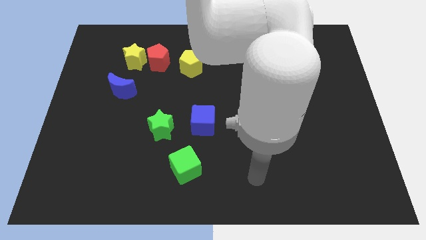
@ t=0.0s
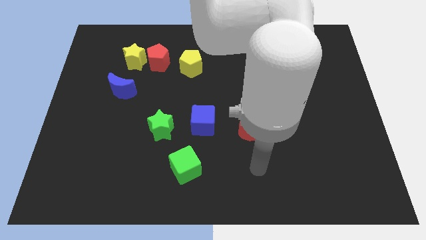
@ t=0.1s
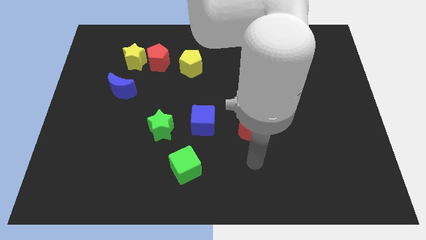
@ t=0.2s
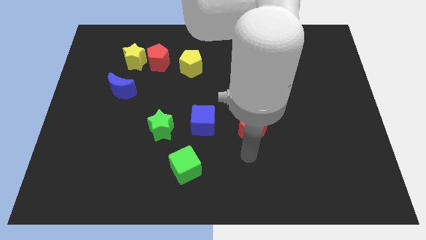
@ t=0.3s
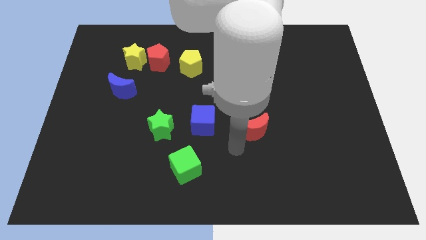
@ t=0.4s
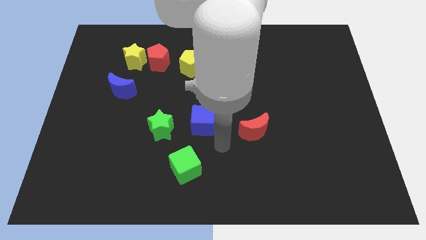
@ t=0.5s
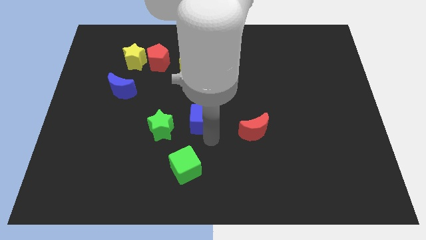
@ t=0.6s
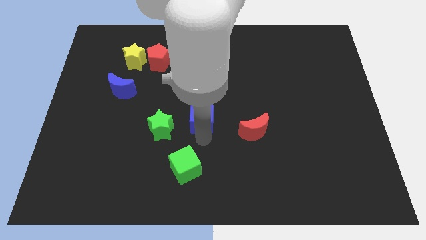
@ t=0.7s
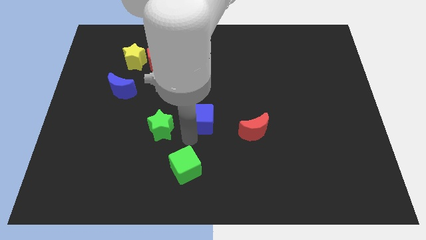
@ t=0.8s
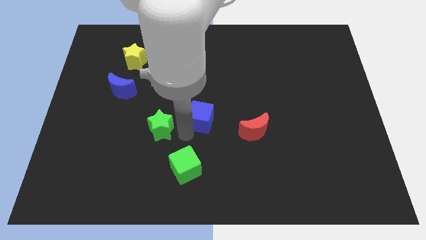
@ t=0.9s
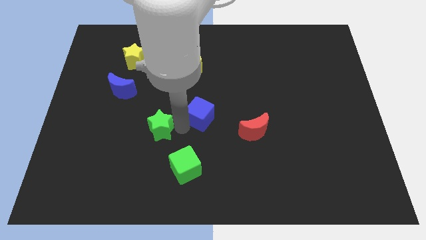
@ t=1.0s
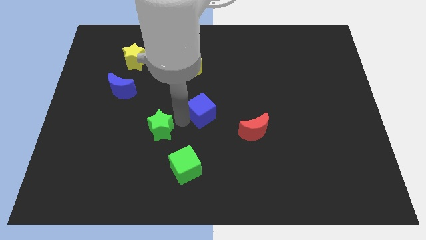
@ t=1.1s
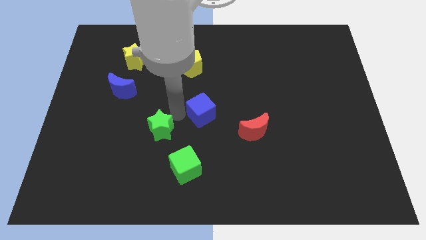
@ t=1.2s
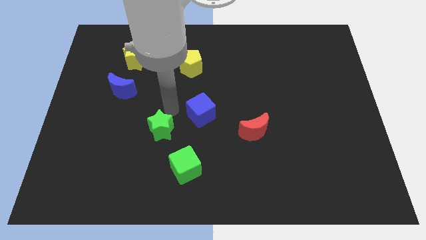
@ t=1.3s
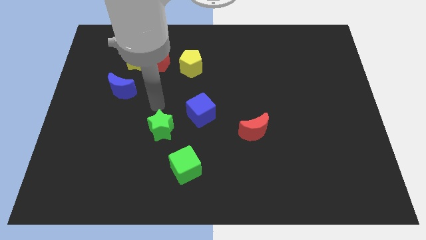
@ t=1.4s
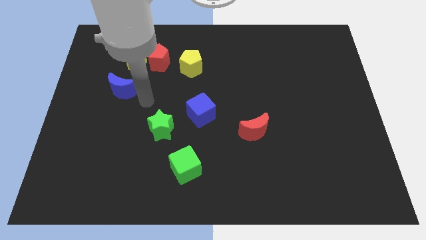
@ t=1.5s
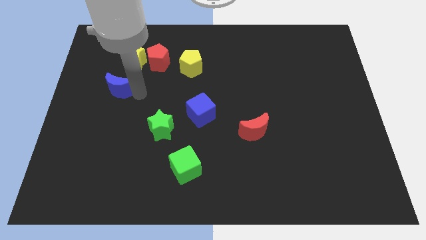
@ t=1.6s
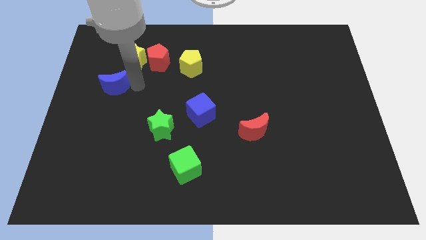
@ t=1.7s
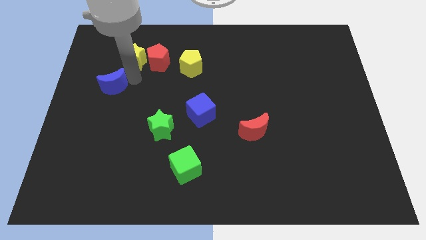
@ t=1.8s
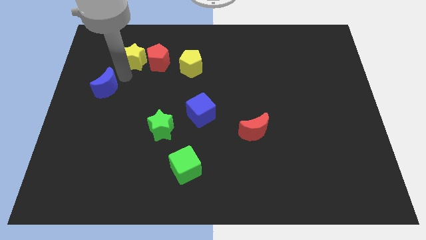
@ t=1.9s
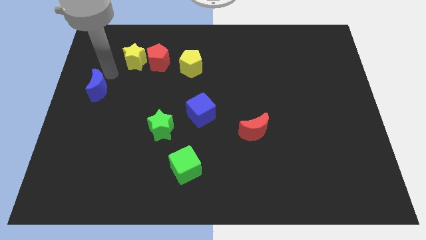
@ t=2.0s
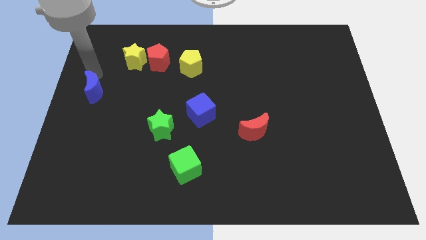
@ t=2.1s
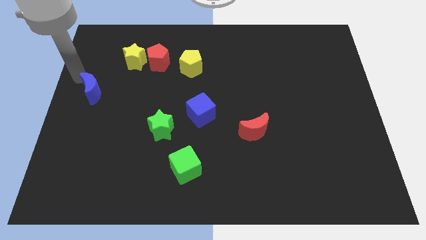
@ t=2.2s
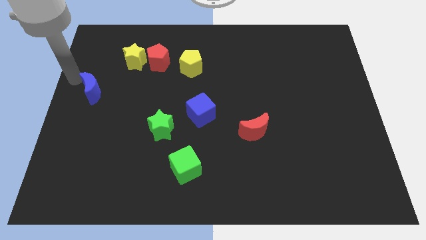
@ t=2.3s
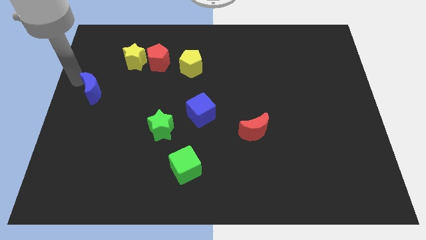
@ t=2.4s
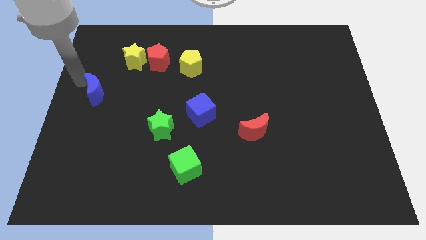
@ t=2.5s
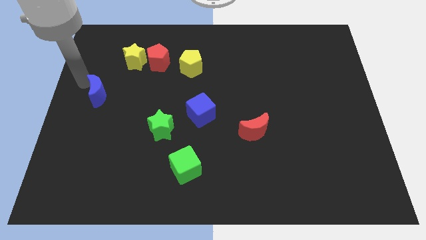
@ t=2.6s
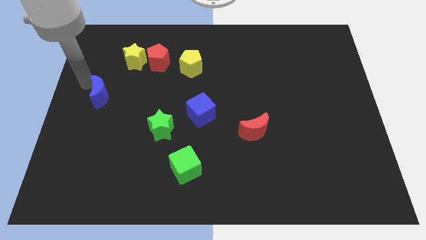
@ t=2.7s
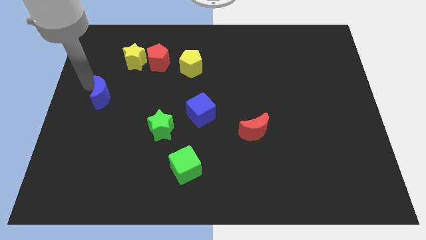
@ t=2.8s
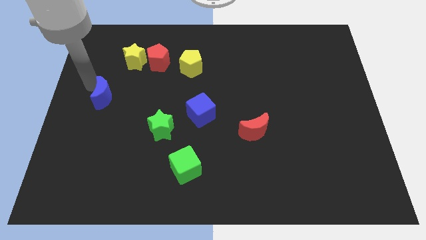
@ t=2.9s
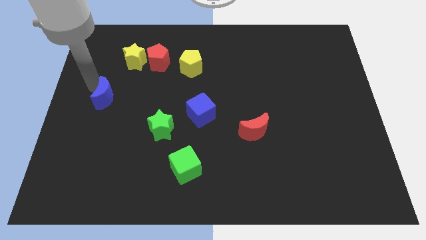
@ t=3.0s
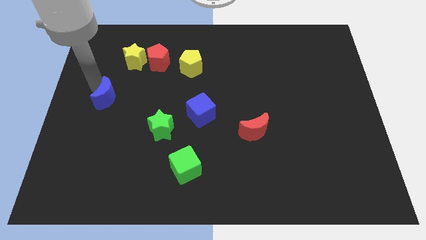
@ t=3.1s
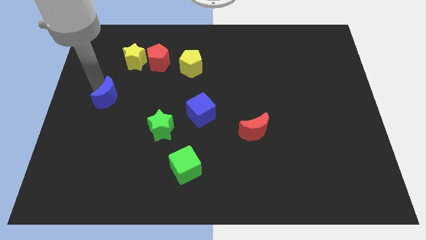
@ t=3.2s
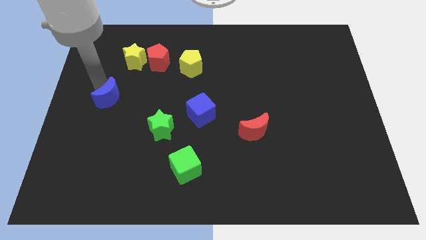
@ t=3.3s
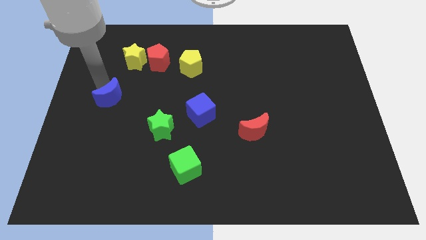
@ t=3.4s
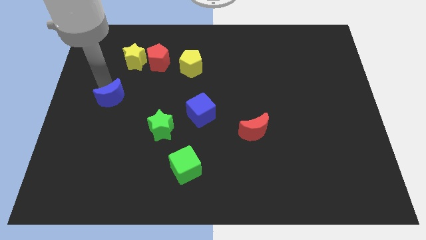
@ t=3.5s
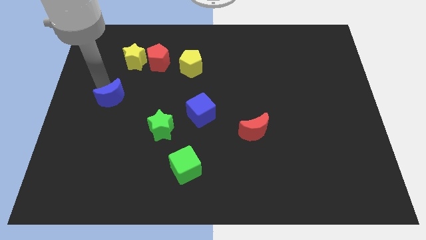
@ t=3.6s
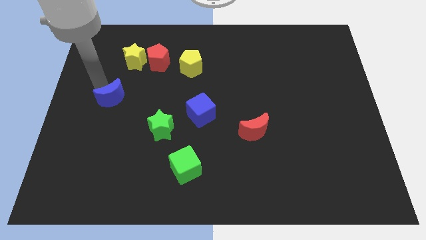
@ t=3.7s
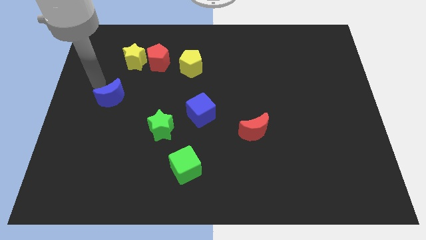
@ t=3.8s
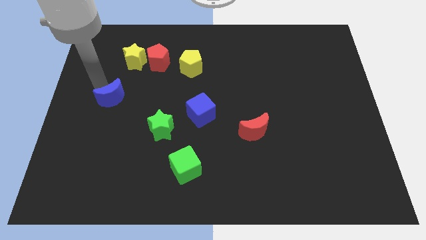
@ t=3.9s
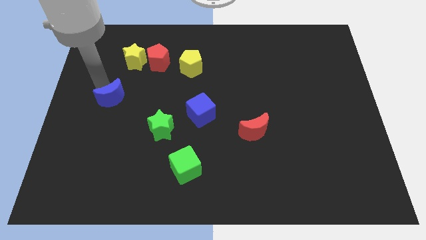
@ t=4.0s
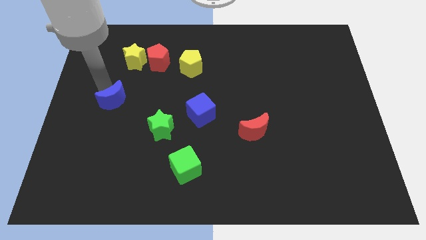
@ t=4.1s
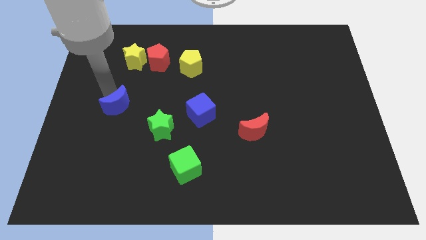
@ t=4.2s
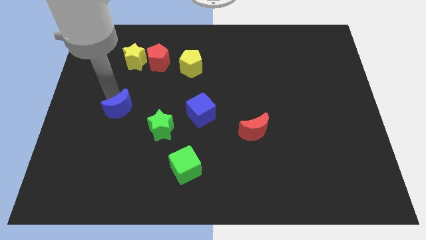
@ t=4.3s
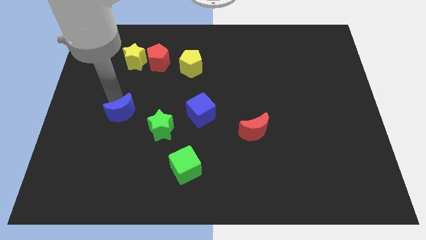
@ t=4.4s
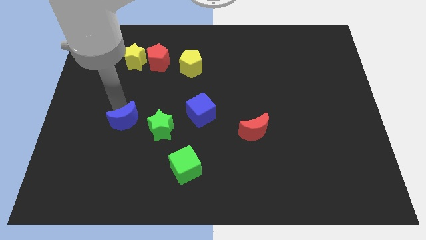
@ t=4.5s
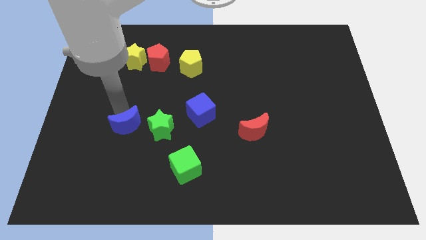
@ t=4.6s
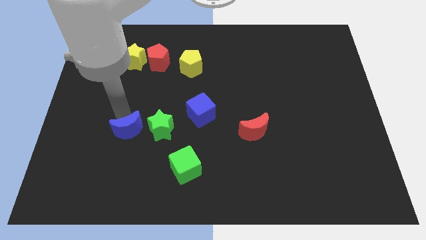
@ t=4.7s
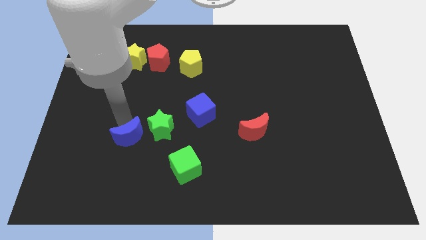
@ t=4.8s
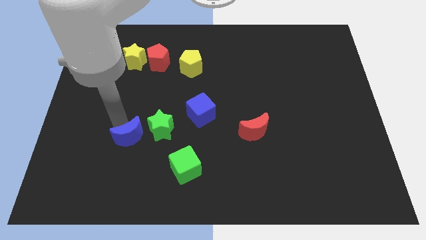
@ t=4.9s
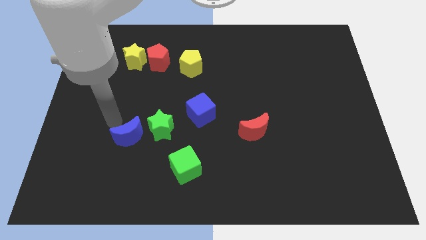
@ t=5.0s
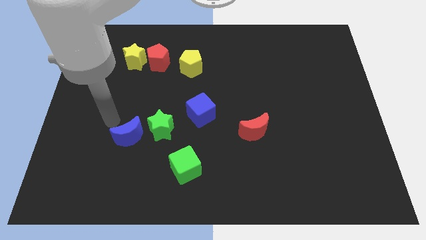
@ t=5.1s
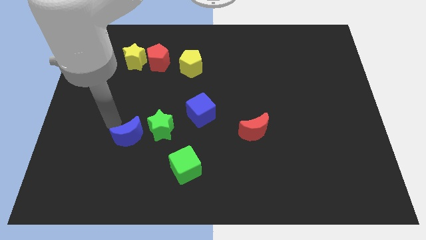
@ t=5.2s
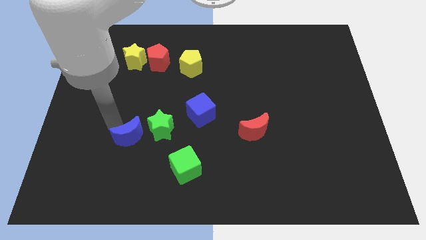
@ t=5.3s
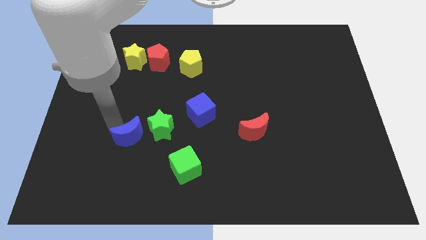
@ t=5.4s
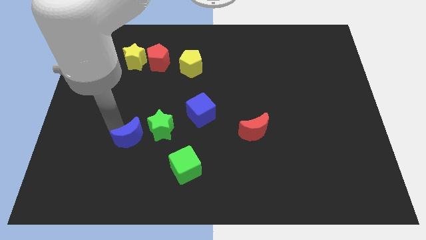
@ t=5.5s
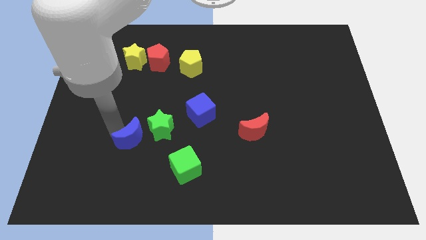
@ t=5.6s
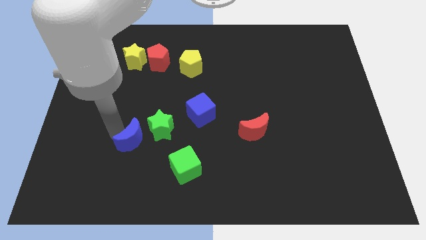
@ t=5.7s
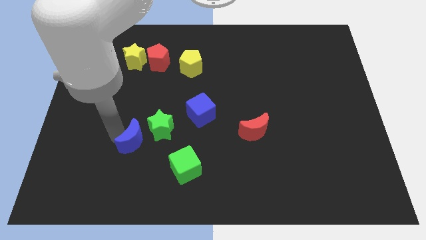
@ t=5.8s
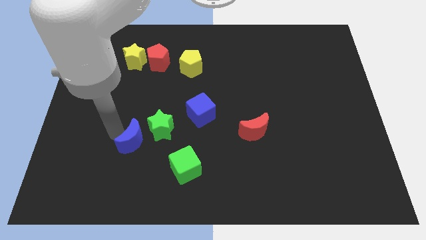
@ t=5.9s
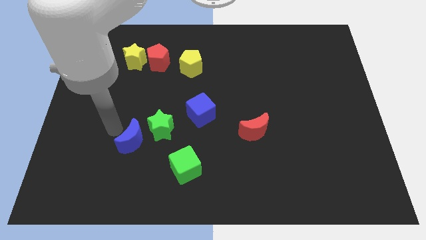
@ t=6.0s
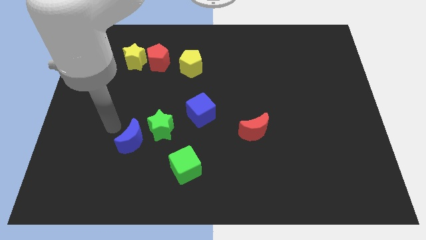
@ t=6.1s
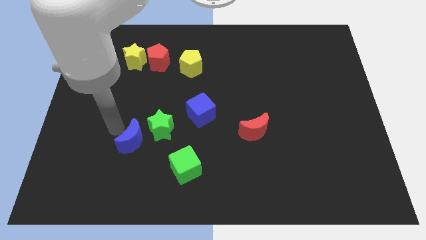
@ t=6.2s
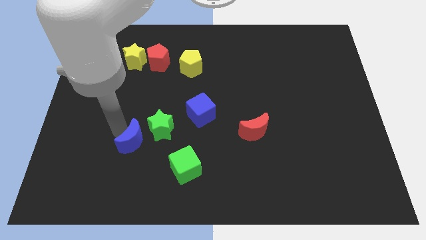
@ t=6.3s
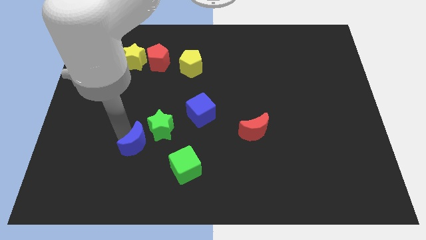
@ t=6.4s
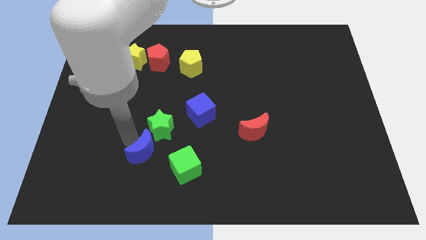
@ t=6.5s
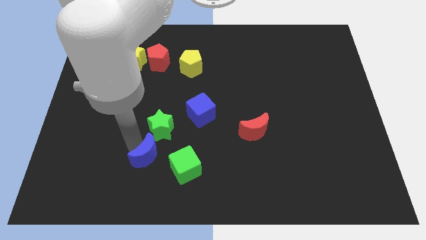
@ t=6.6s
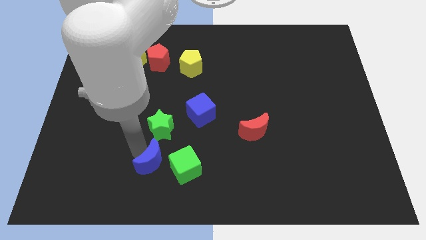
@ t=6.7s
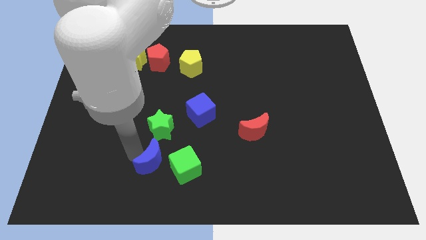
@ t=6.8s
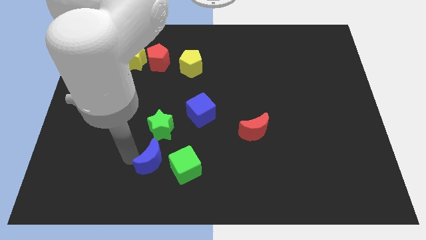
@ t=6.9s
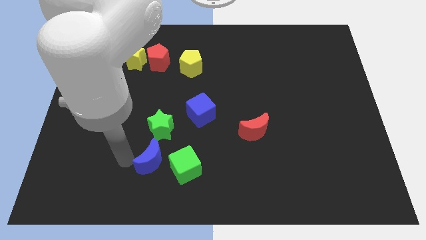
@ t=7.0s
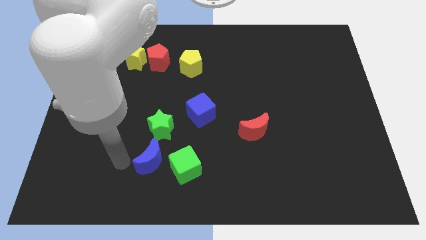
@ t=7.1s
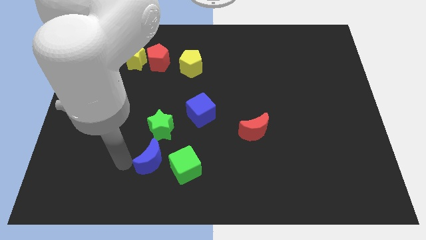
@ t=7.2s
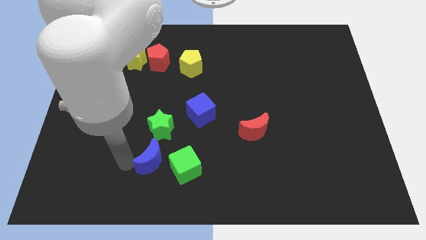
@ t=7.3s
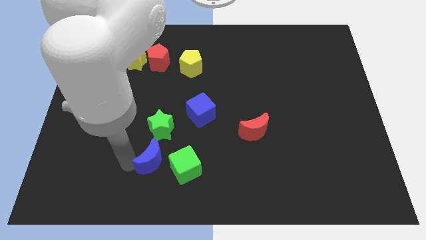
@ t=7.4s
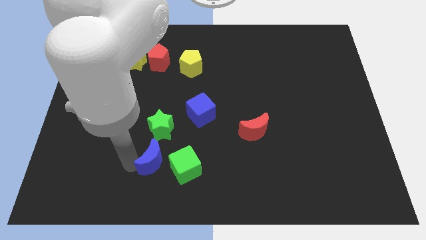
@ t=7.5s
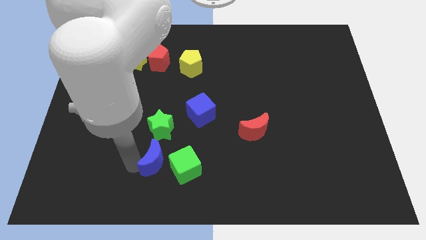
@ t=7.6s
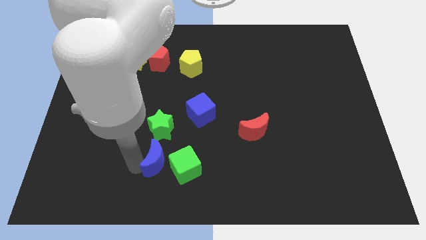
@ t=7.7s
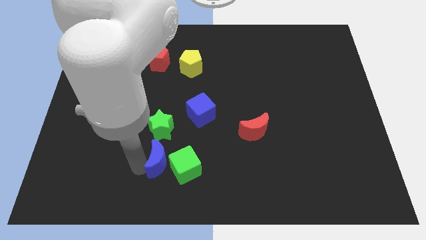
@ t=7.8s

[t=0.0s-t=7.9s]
put the blue moon towards the green cube

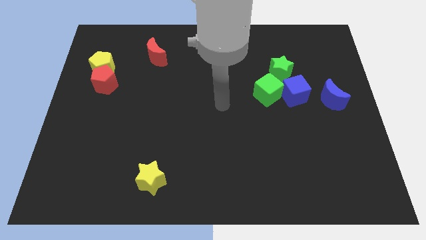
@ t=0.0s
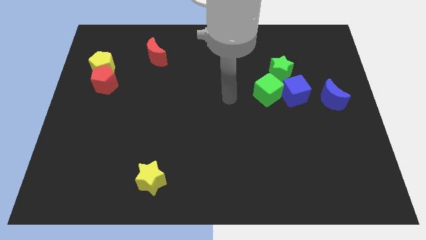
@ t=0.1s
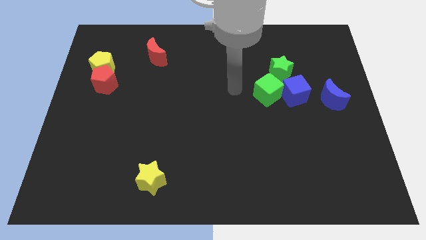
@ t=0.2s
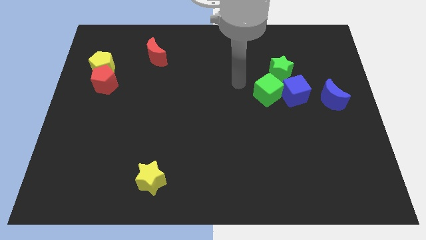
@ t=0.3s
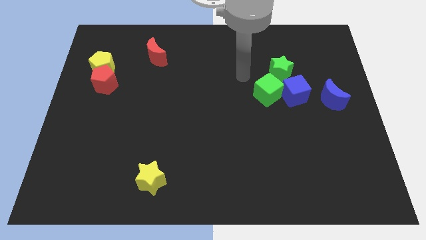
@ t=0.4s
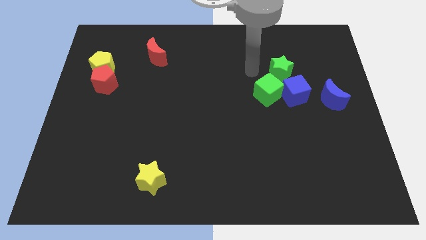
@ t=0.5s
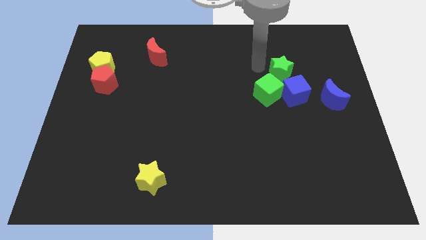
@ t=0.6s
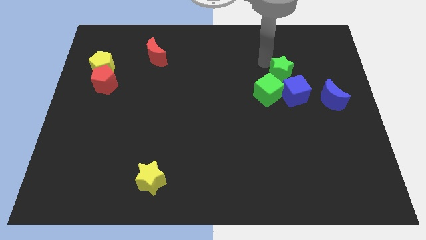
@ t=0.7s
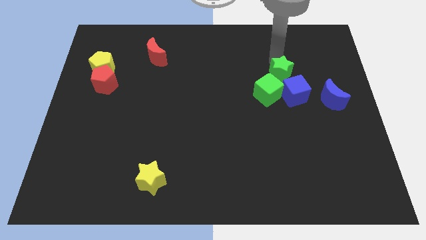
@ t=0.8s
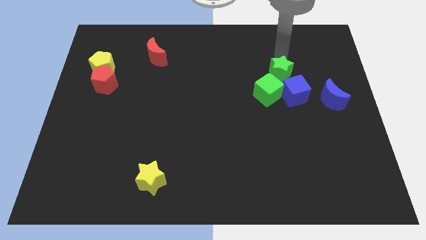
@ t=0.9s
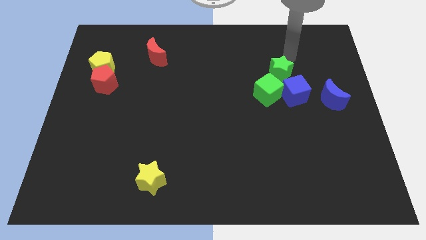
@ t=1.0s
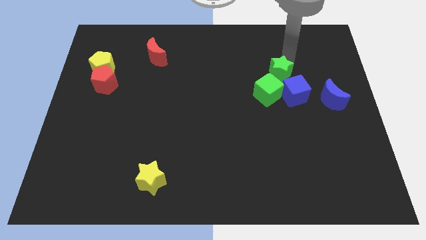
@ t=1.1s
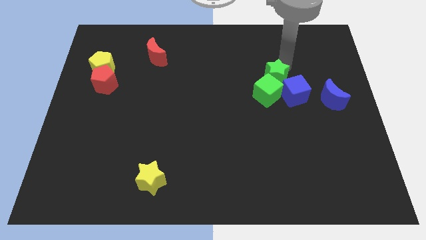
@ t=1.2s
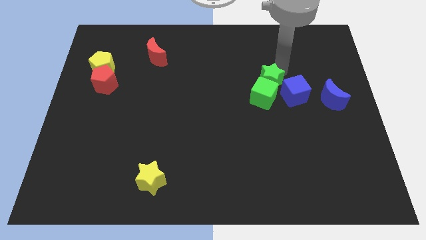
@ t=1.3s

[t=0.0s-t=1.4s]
slide the green star next to the green cube
